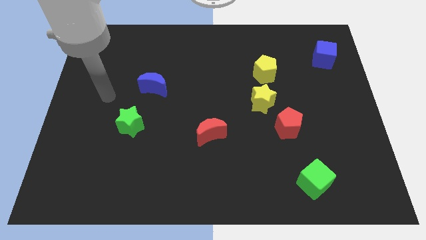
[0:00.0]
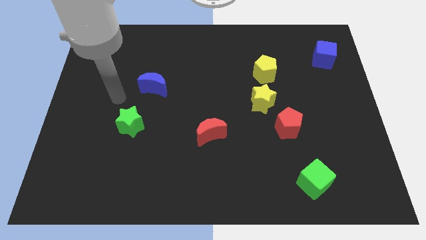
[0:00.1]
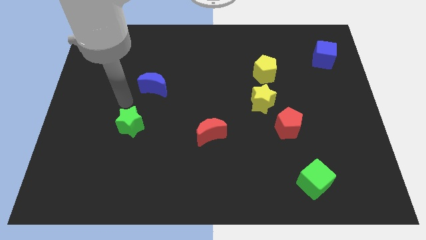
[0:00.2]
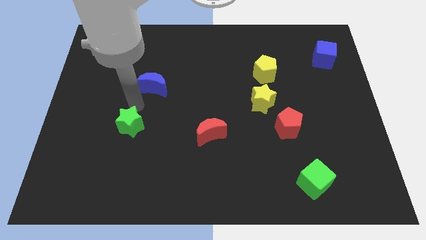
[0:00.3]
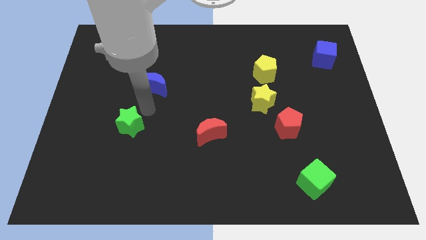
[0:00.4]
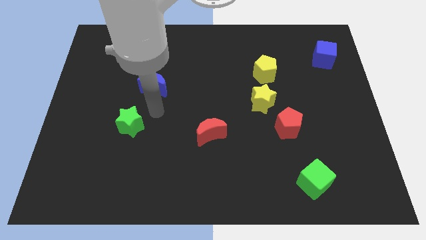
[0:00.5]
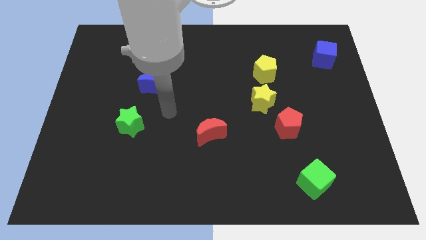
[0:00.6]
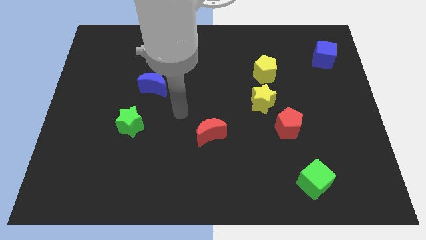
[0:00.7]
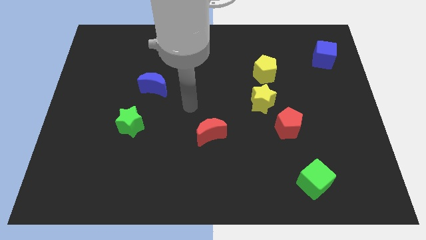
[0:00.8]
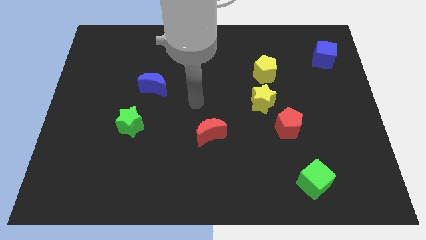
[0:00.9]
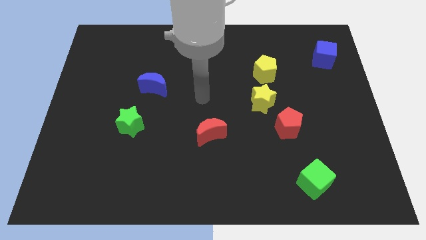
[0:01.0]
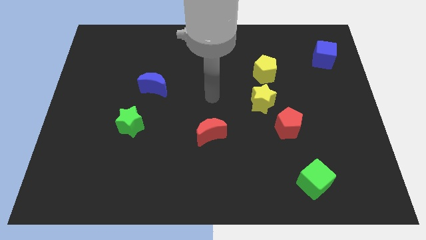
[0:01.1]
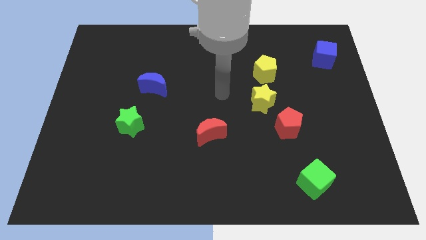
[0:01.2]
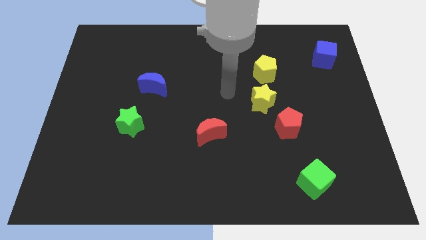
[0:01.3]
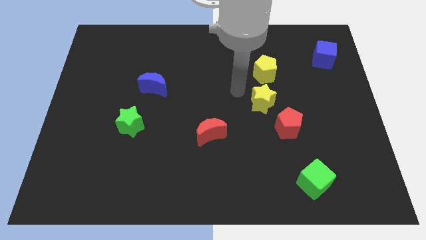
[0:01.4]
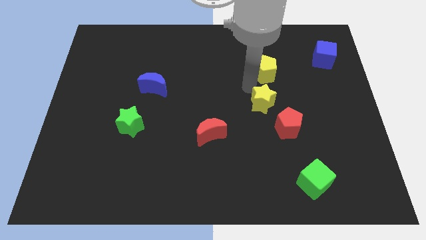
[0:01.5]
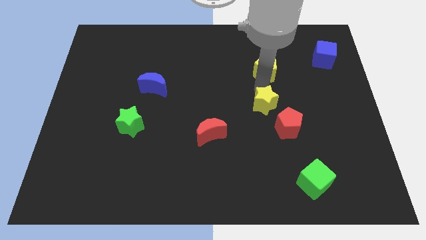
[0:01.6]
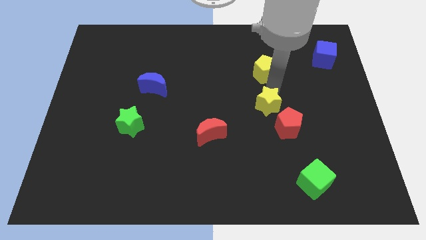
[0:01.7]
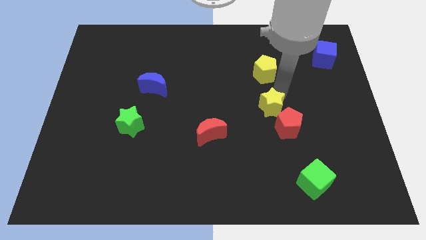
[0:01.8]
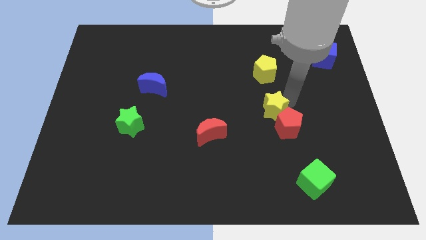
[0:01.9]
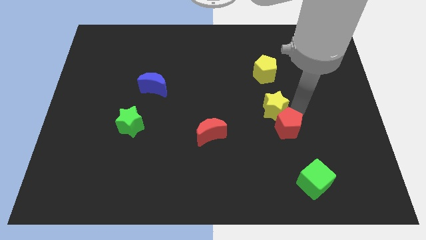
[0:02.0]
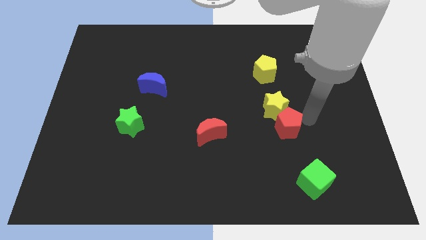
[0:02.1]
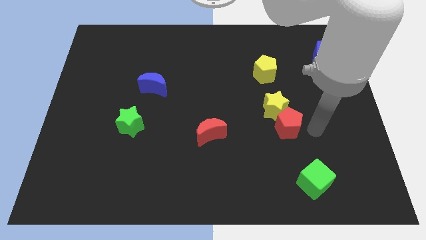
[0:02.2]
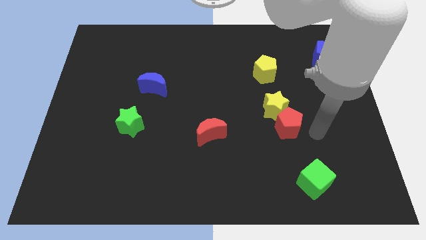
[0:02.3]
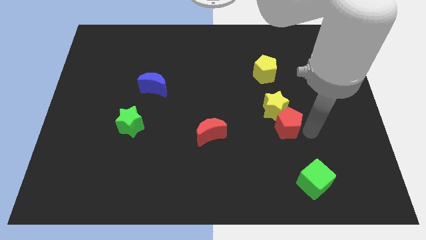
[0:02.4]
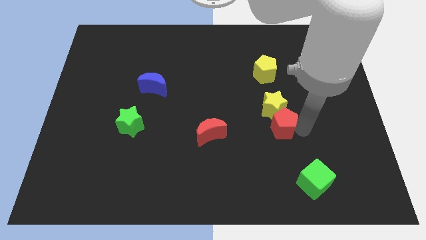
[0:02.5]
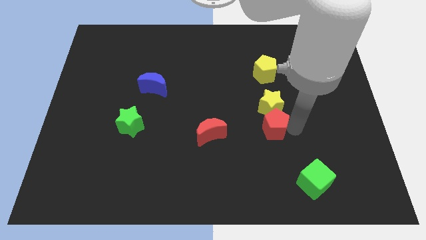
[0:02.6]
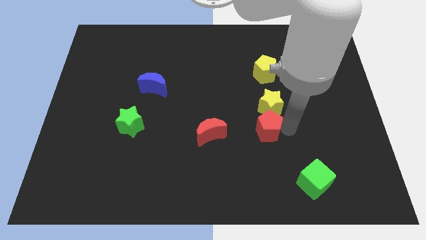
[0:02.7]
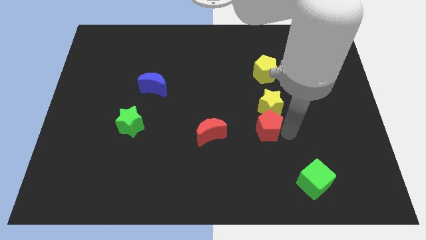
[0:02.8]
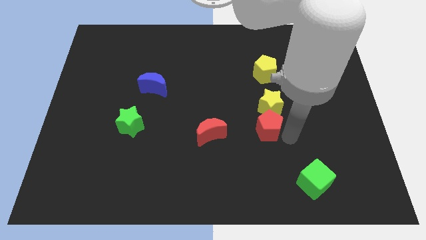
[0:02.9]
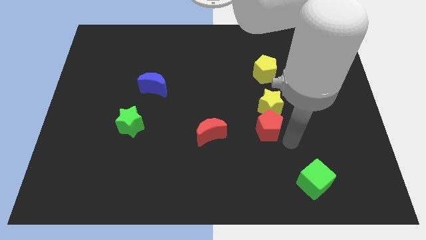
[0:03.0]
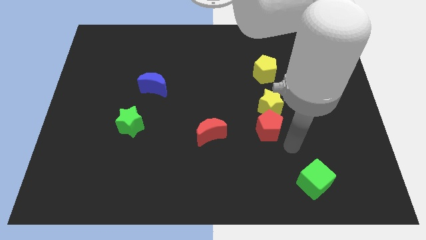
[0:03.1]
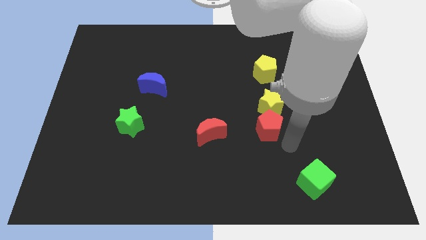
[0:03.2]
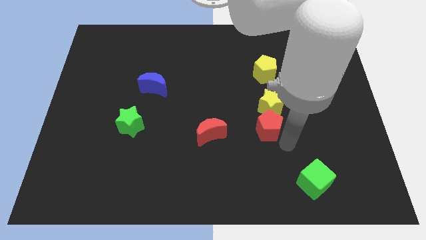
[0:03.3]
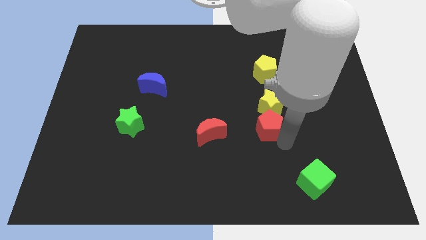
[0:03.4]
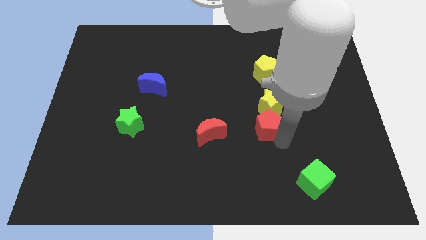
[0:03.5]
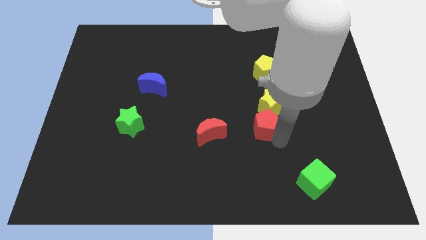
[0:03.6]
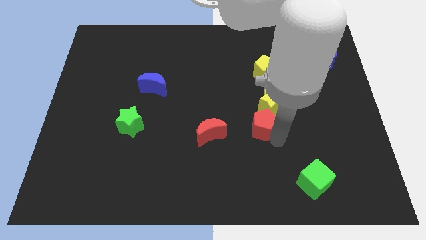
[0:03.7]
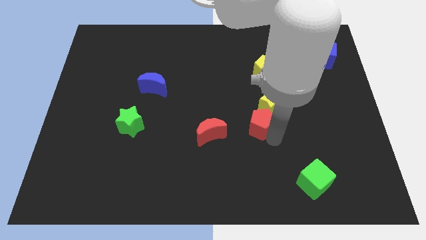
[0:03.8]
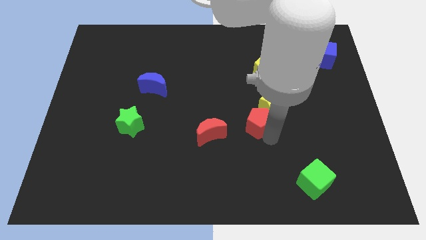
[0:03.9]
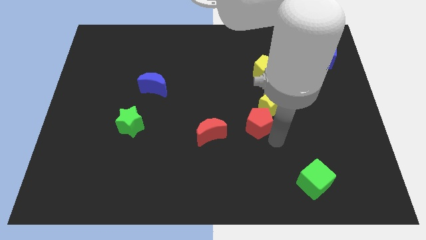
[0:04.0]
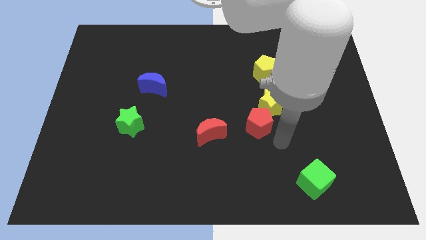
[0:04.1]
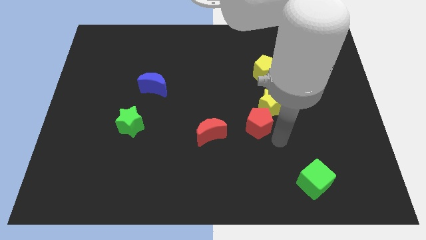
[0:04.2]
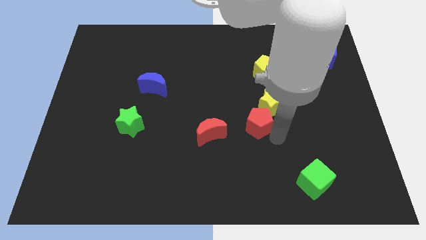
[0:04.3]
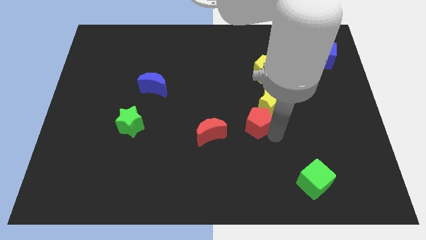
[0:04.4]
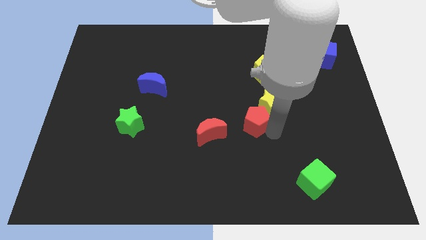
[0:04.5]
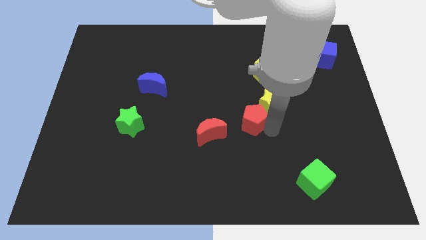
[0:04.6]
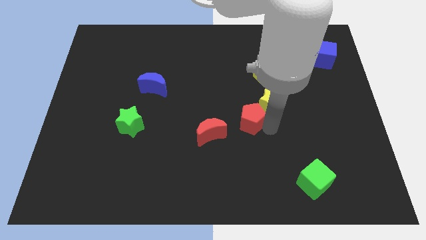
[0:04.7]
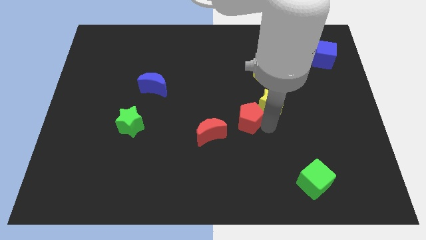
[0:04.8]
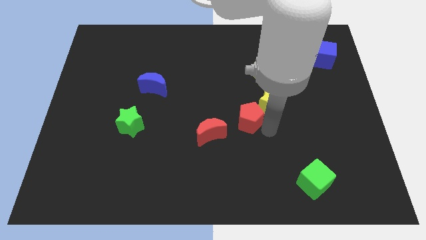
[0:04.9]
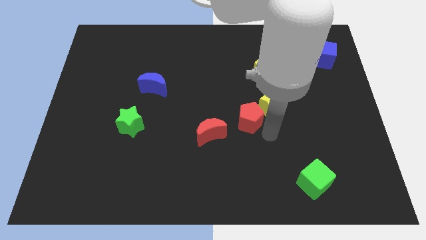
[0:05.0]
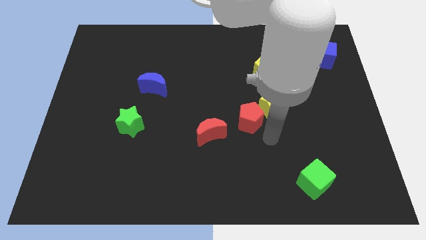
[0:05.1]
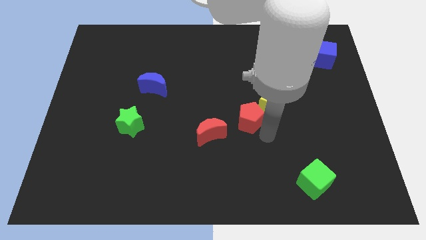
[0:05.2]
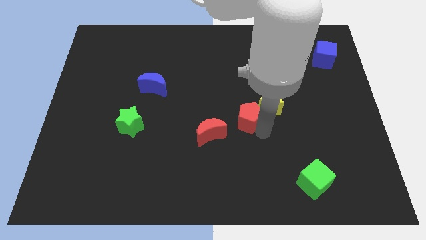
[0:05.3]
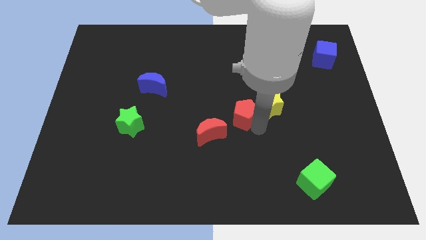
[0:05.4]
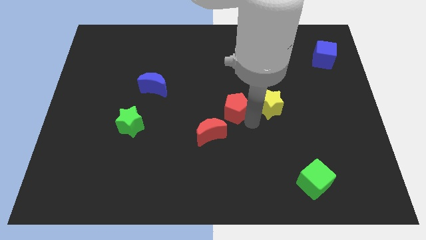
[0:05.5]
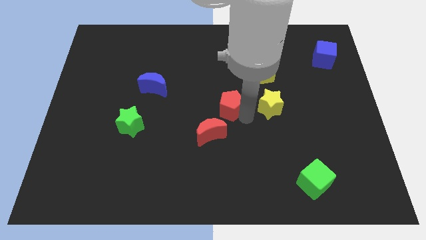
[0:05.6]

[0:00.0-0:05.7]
slide the red pentagon to the top of the red moon
